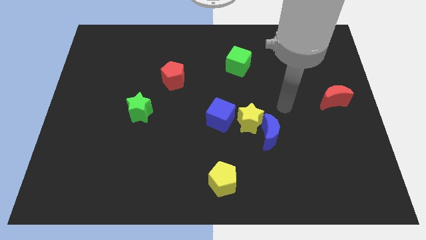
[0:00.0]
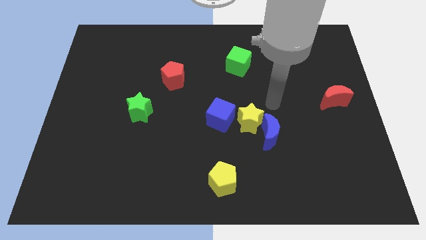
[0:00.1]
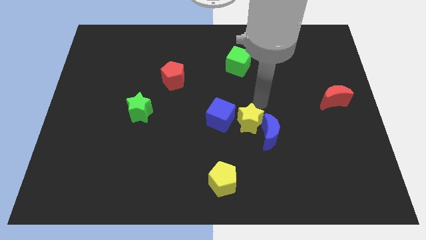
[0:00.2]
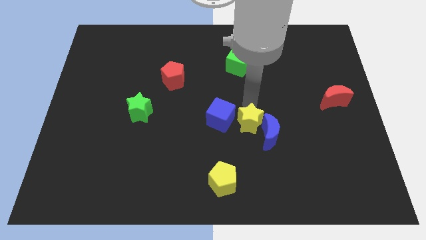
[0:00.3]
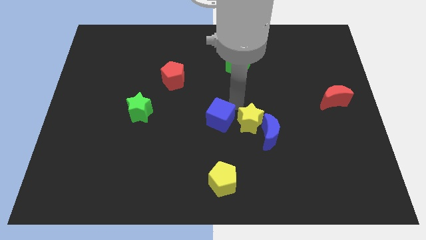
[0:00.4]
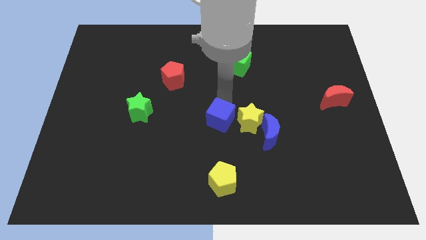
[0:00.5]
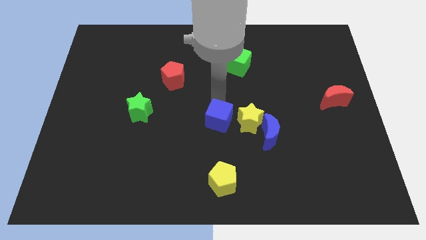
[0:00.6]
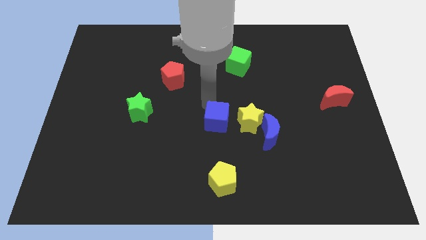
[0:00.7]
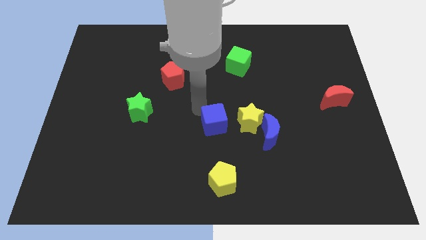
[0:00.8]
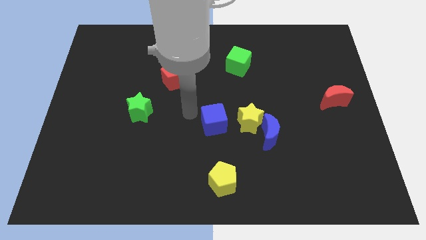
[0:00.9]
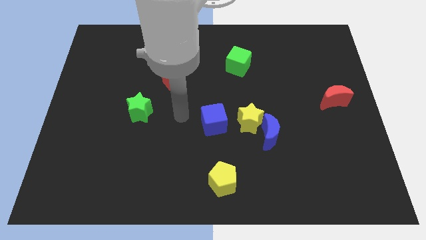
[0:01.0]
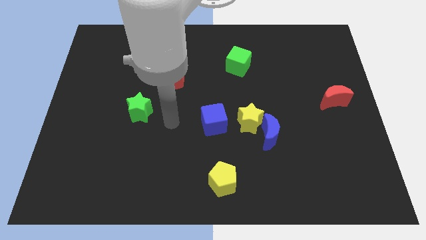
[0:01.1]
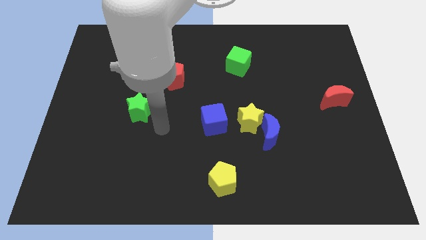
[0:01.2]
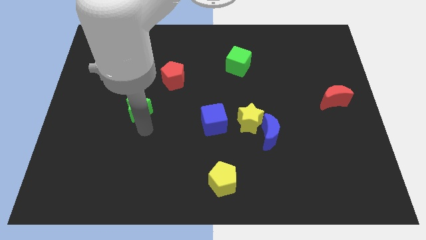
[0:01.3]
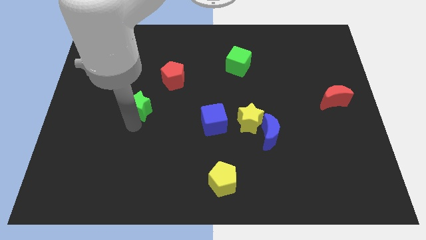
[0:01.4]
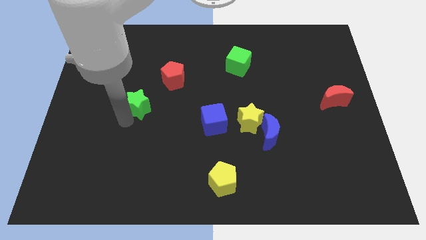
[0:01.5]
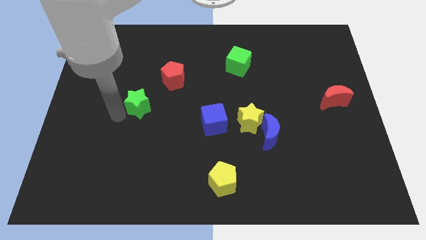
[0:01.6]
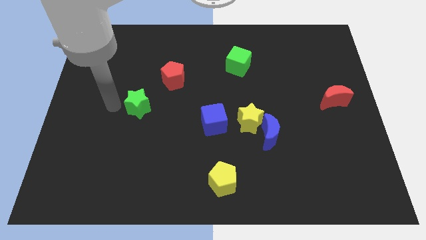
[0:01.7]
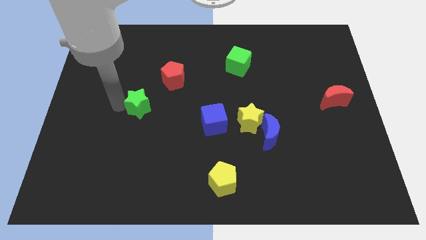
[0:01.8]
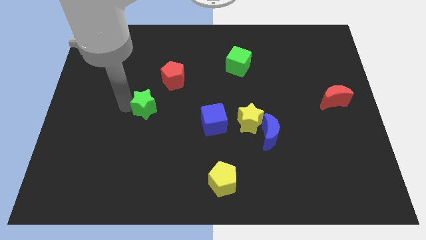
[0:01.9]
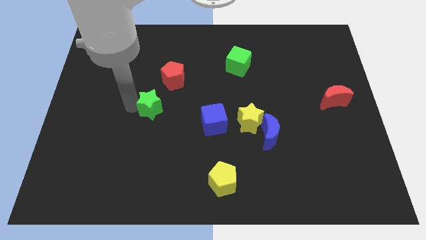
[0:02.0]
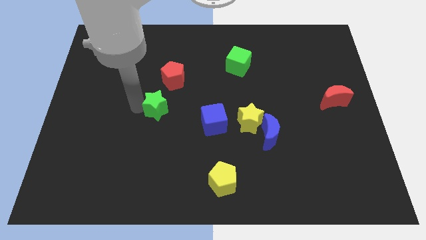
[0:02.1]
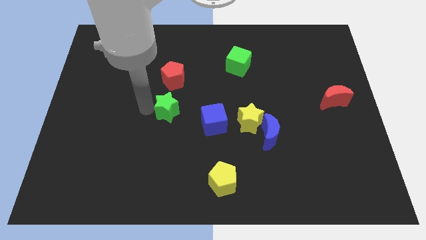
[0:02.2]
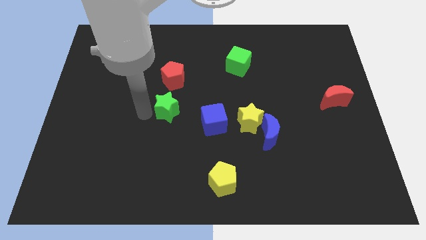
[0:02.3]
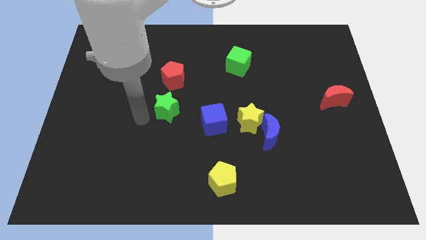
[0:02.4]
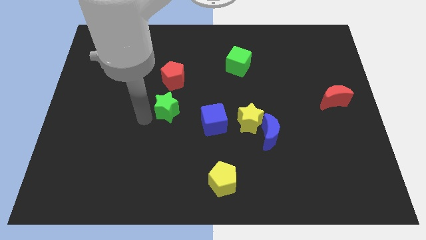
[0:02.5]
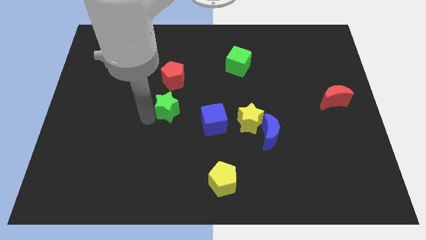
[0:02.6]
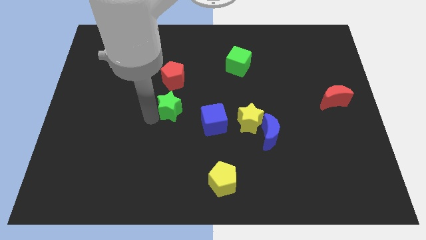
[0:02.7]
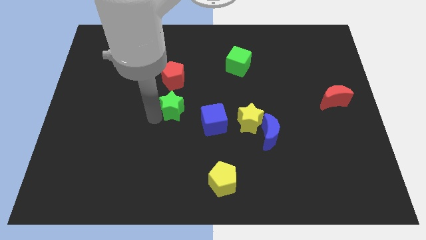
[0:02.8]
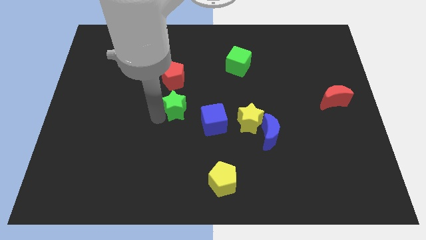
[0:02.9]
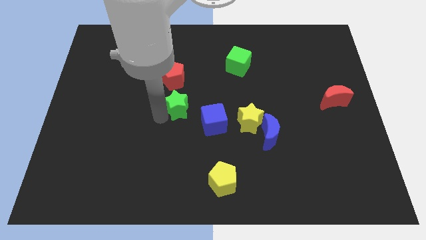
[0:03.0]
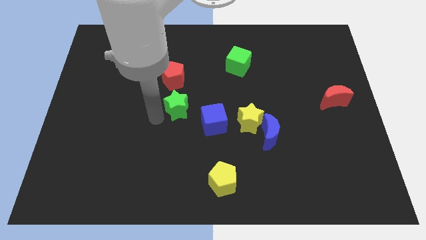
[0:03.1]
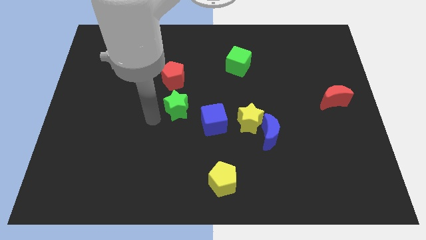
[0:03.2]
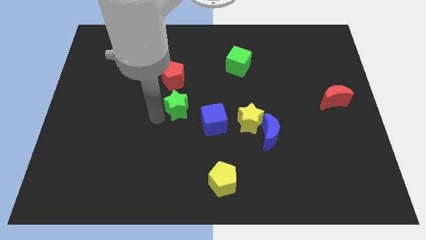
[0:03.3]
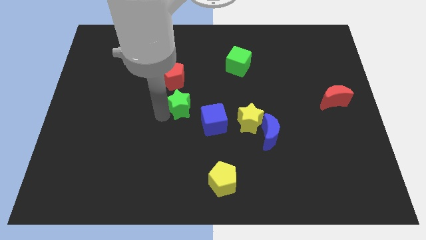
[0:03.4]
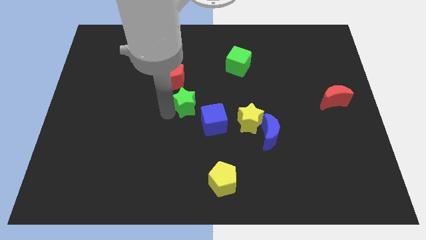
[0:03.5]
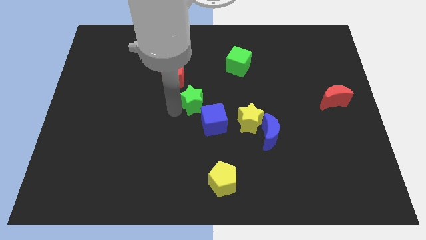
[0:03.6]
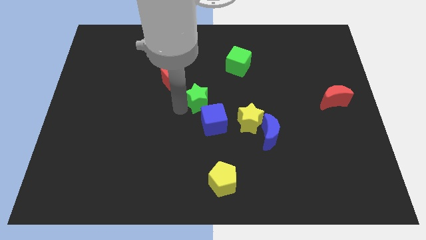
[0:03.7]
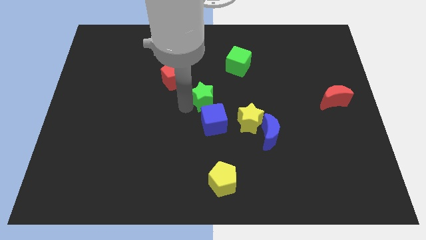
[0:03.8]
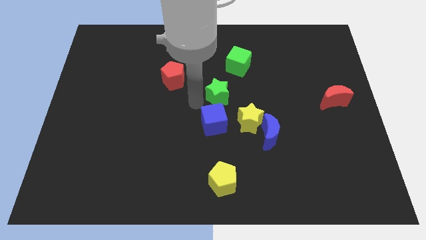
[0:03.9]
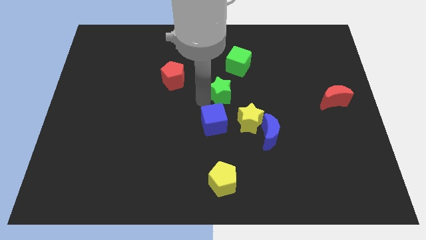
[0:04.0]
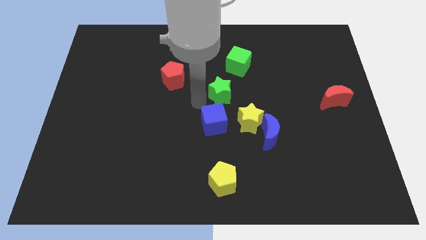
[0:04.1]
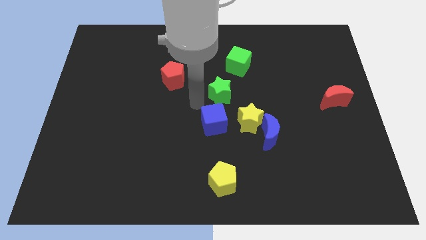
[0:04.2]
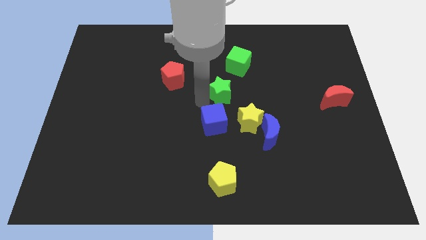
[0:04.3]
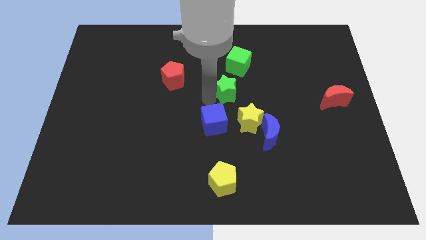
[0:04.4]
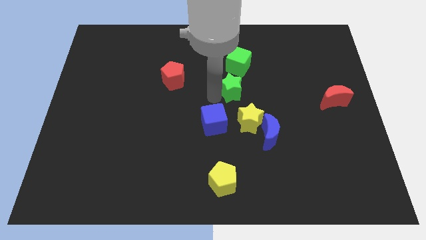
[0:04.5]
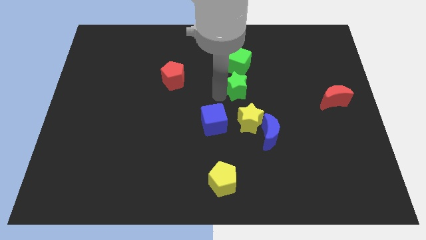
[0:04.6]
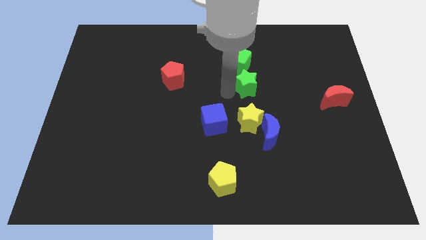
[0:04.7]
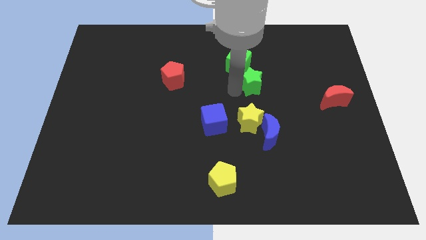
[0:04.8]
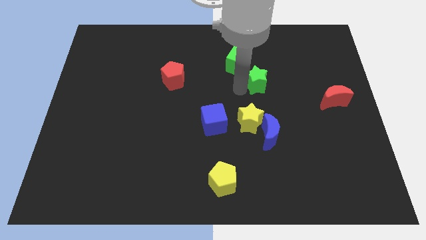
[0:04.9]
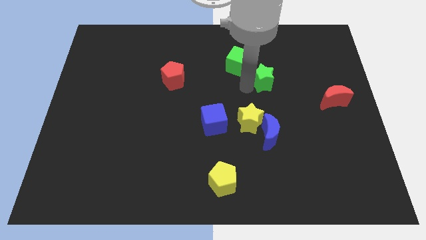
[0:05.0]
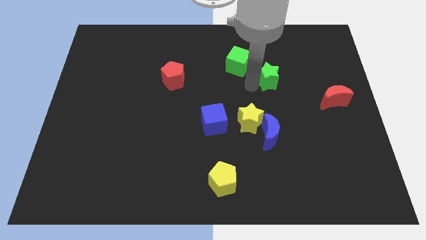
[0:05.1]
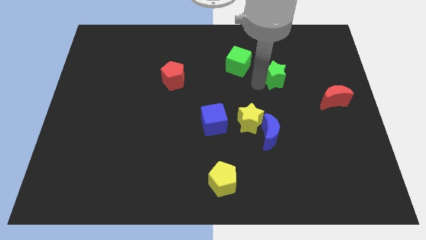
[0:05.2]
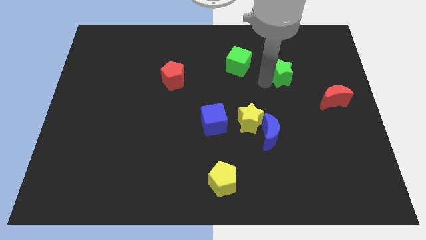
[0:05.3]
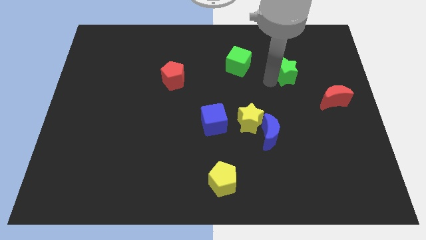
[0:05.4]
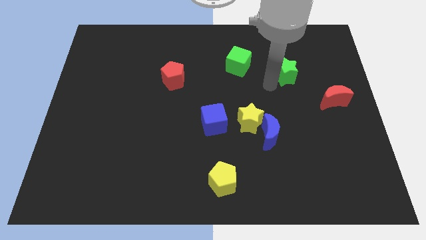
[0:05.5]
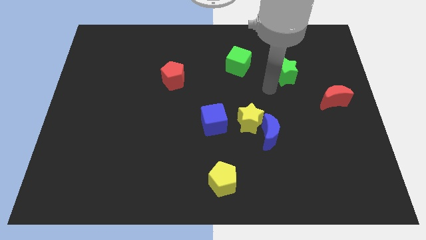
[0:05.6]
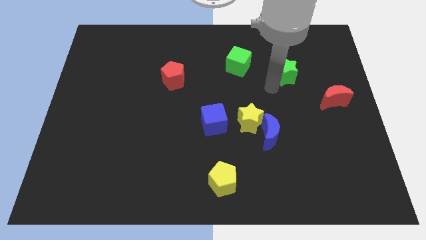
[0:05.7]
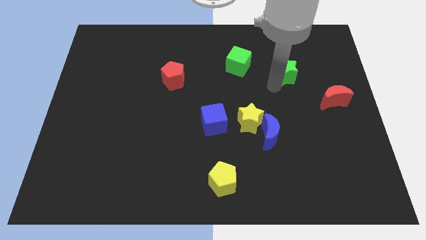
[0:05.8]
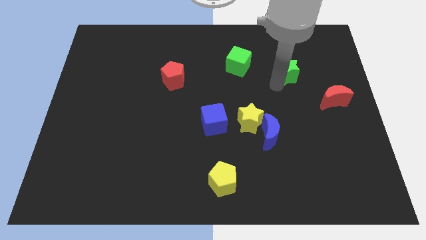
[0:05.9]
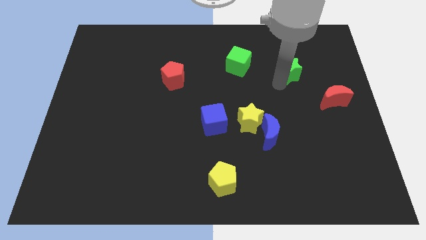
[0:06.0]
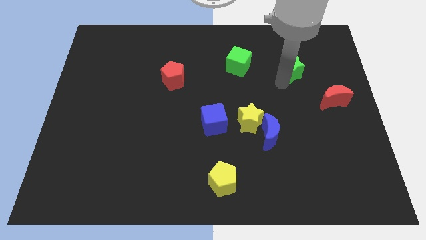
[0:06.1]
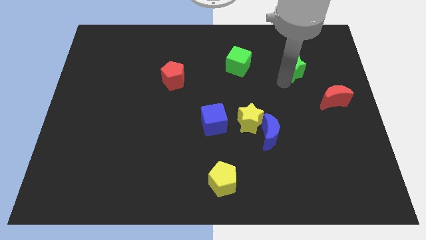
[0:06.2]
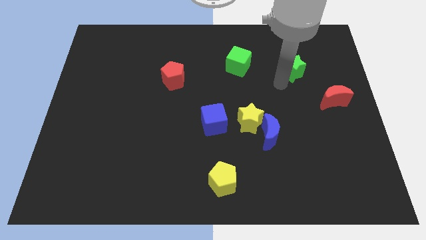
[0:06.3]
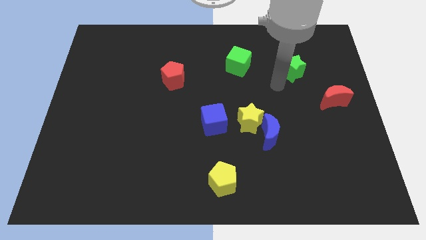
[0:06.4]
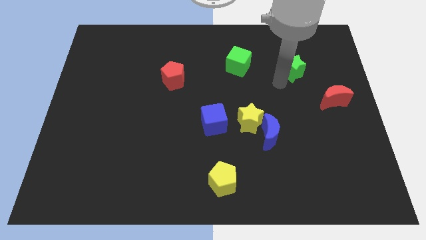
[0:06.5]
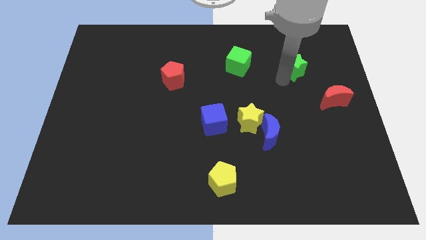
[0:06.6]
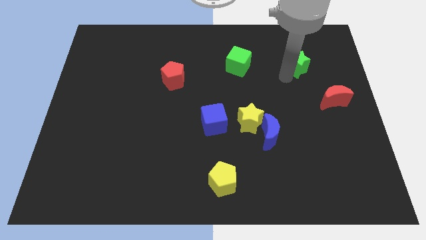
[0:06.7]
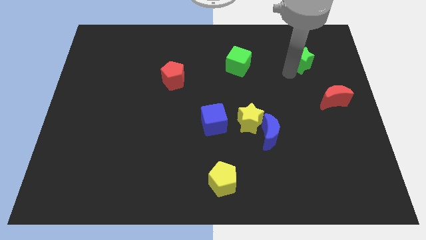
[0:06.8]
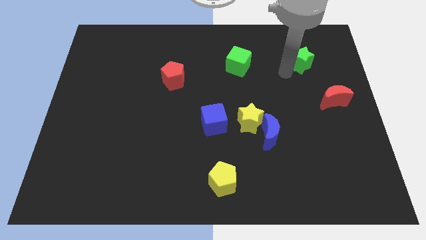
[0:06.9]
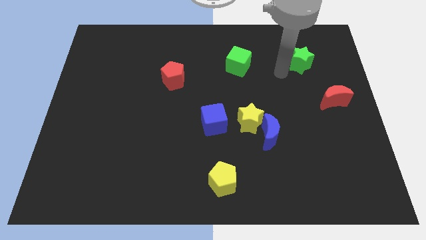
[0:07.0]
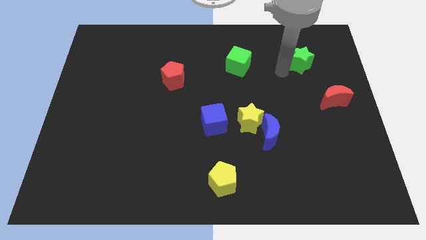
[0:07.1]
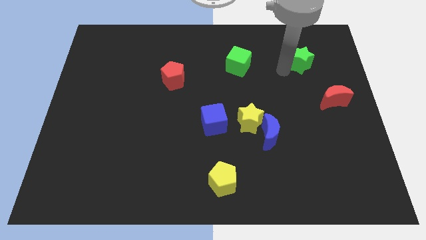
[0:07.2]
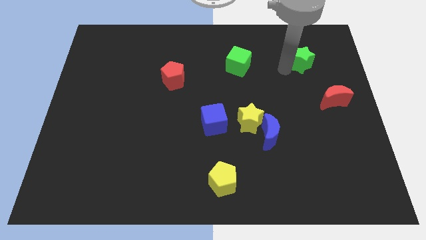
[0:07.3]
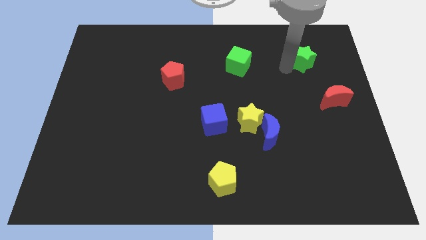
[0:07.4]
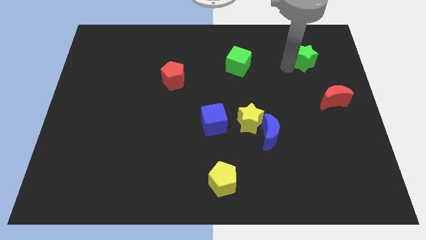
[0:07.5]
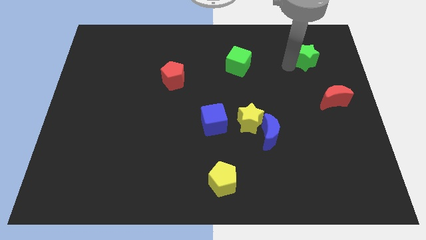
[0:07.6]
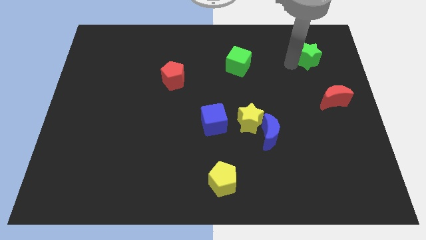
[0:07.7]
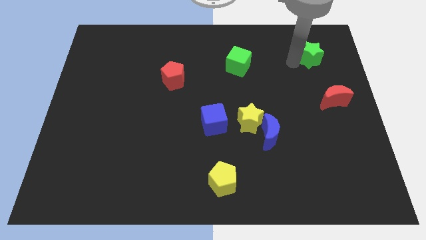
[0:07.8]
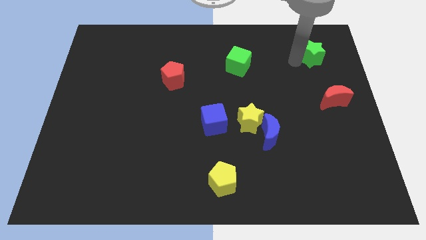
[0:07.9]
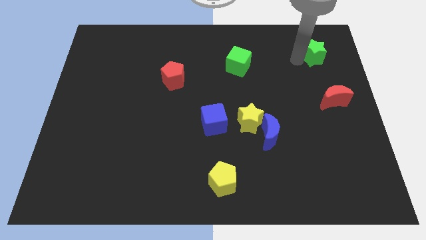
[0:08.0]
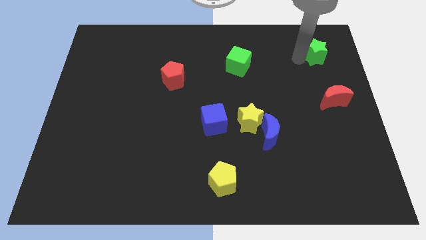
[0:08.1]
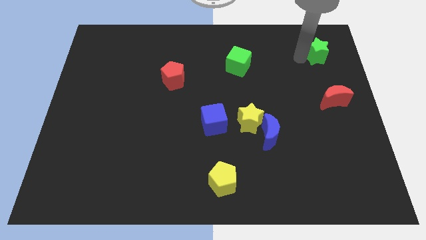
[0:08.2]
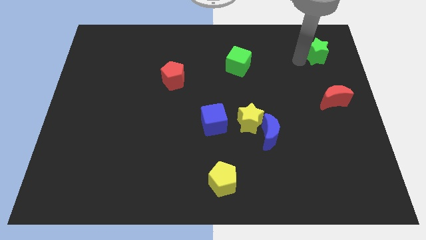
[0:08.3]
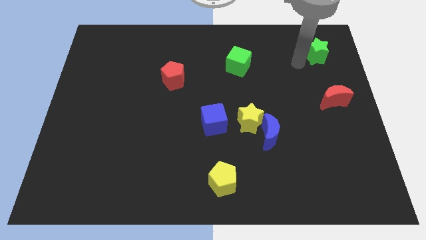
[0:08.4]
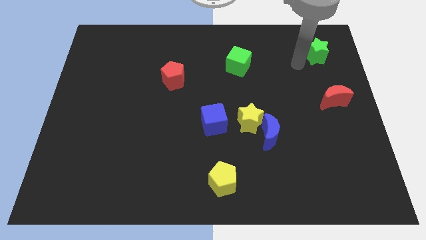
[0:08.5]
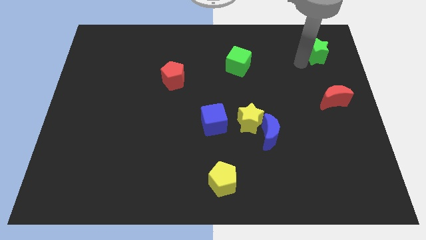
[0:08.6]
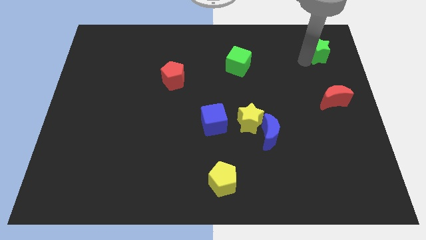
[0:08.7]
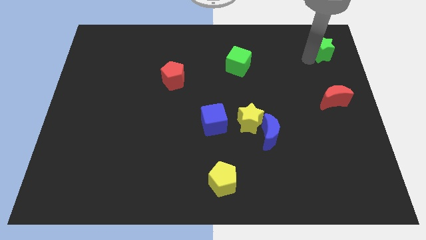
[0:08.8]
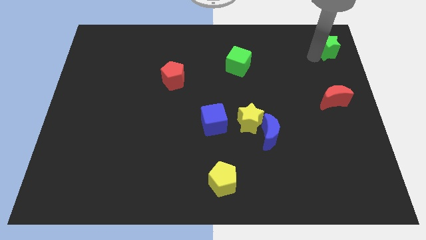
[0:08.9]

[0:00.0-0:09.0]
move the green star to the top right of the board
